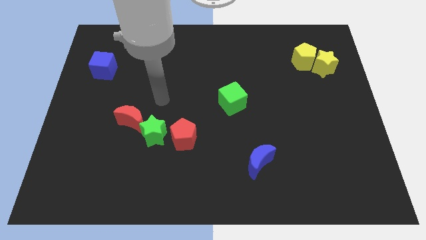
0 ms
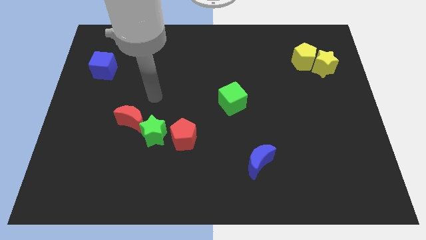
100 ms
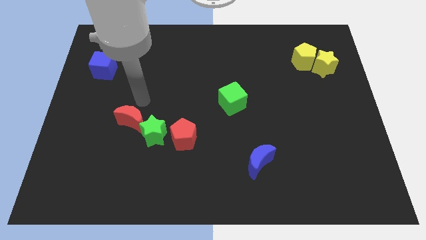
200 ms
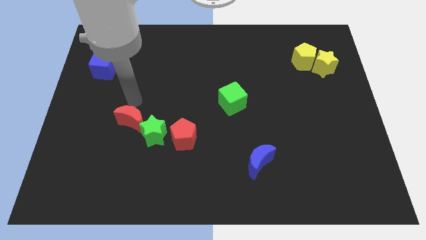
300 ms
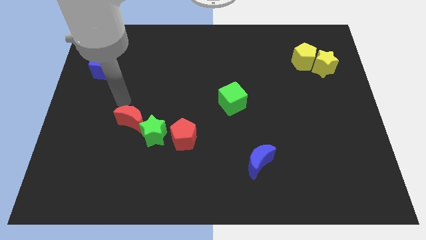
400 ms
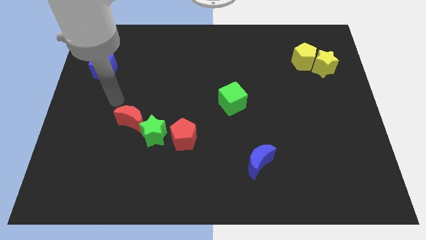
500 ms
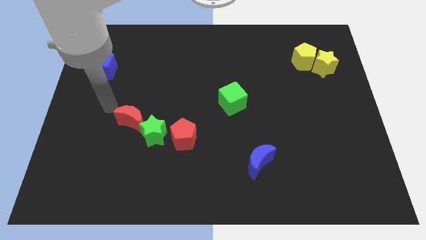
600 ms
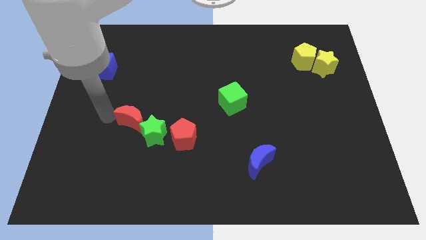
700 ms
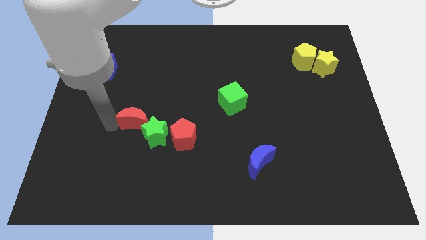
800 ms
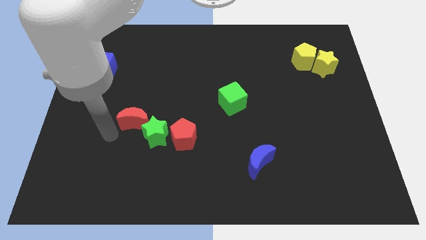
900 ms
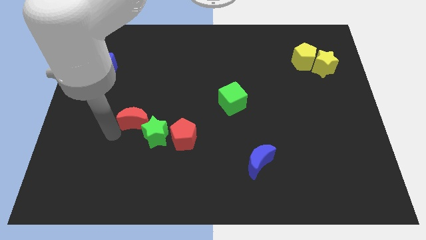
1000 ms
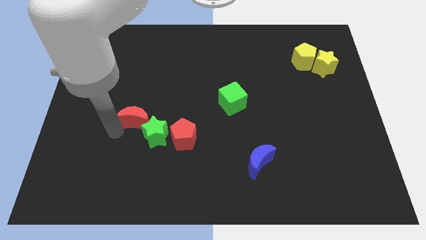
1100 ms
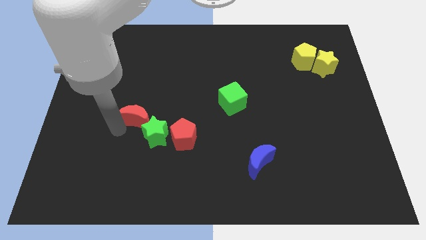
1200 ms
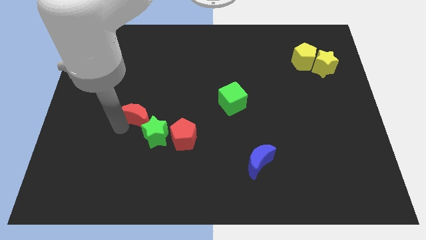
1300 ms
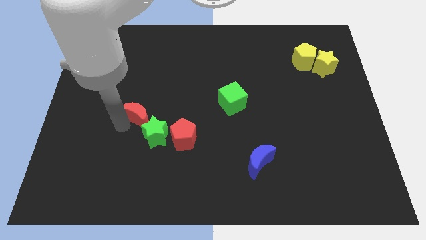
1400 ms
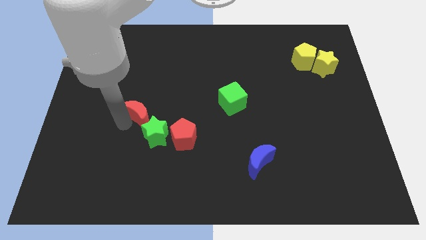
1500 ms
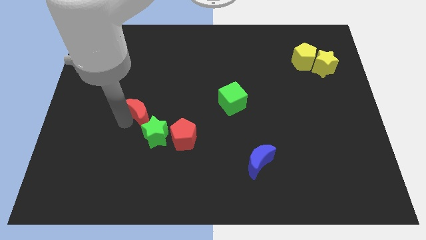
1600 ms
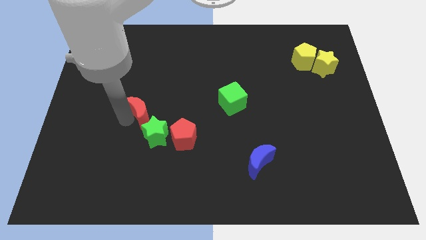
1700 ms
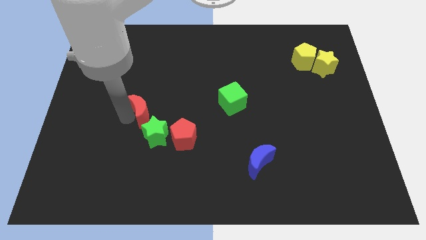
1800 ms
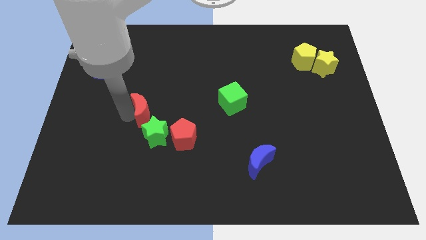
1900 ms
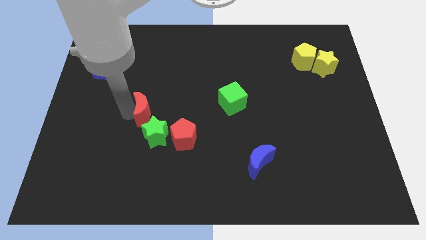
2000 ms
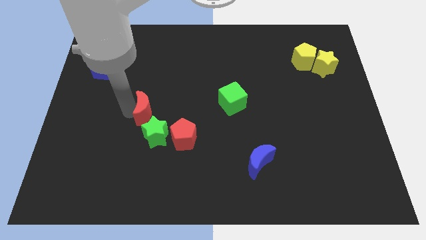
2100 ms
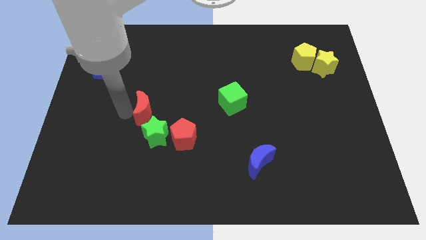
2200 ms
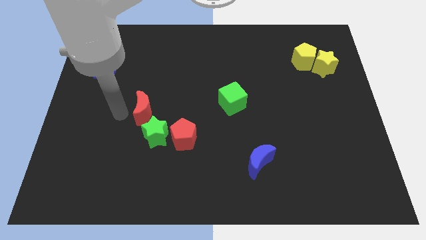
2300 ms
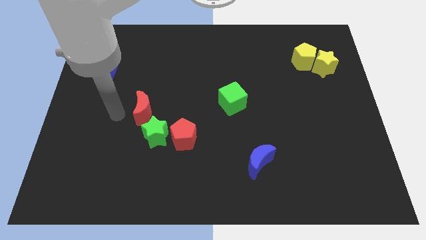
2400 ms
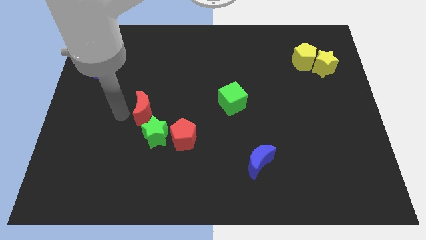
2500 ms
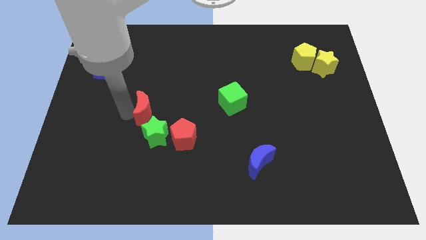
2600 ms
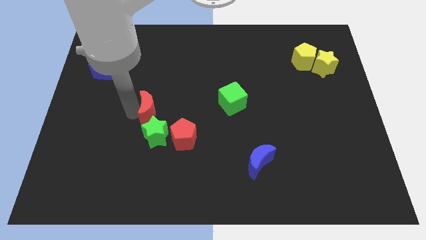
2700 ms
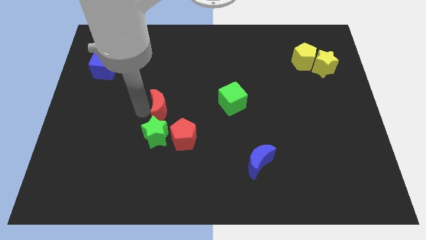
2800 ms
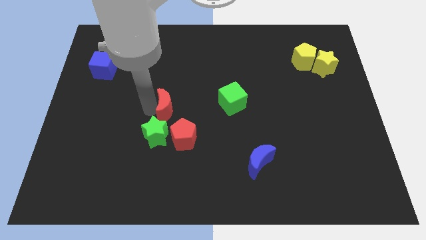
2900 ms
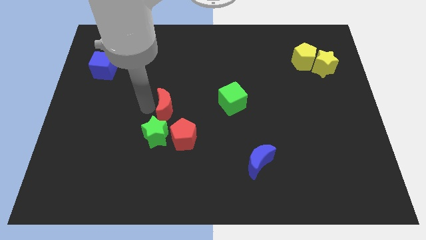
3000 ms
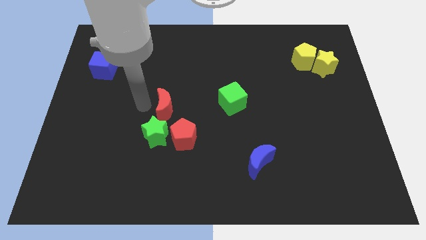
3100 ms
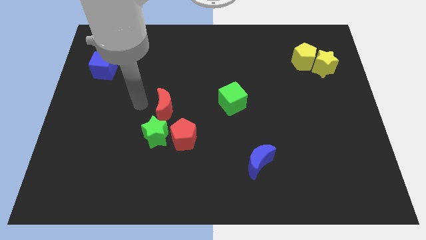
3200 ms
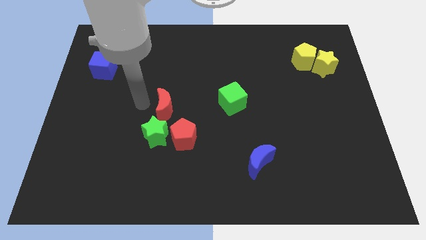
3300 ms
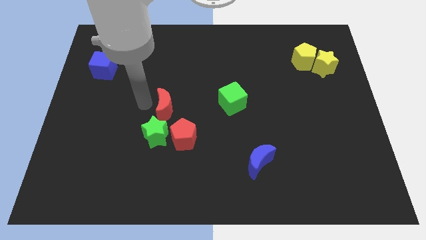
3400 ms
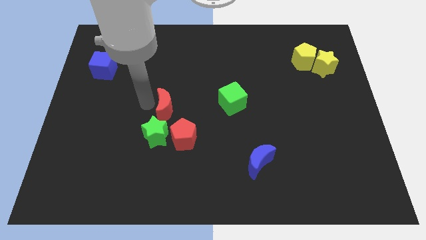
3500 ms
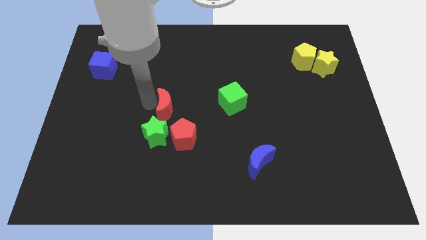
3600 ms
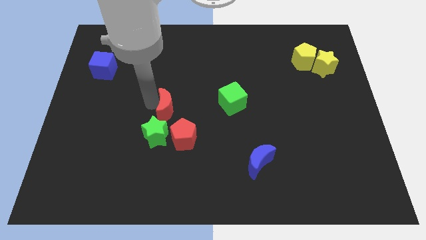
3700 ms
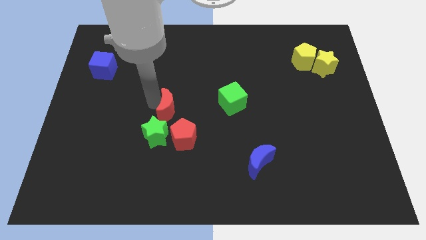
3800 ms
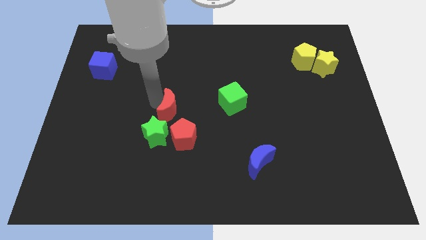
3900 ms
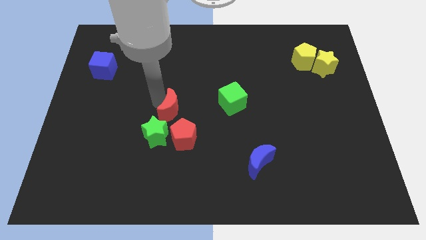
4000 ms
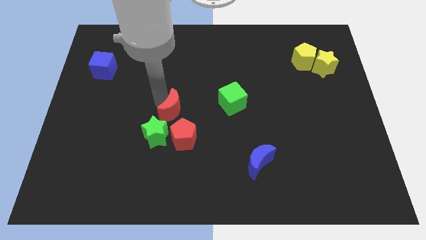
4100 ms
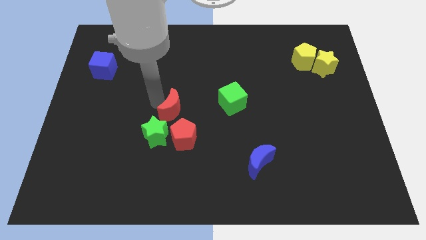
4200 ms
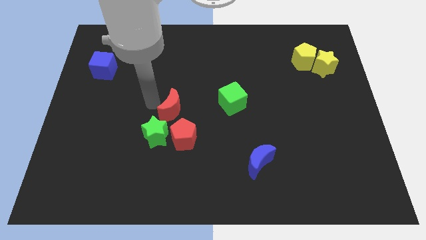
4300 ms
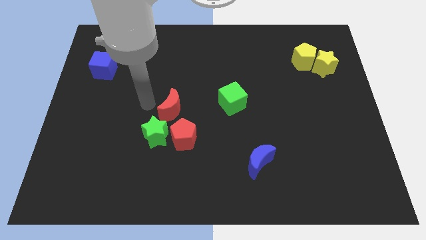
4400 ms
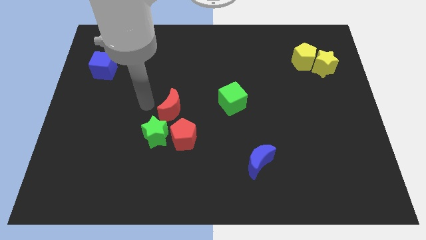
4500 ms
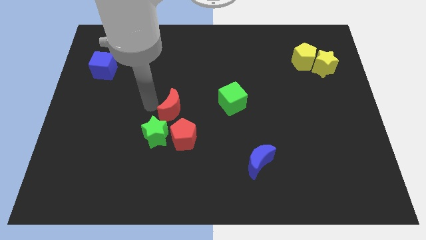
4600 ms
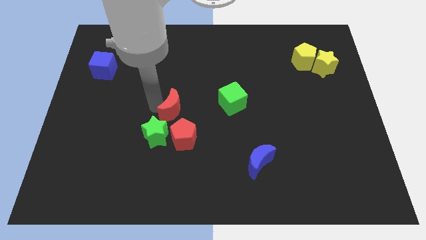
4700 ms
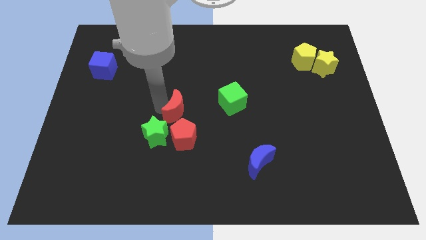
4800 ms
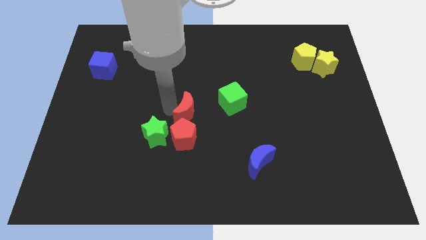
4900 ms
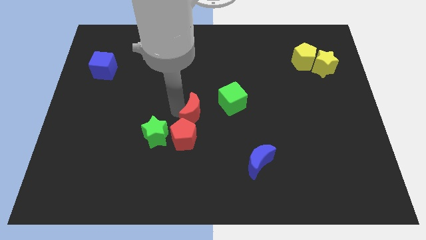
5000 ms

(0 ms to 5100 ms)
put the red moon diagonally down and to the left of the green cube

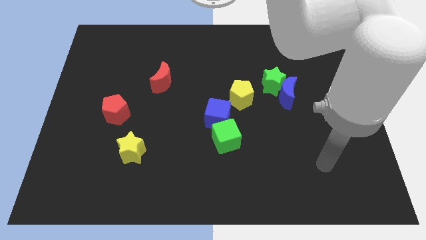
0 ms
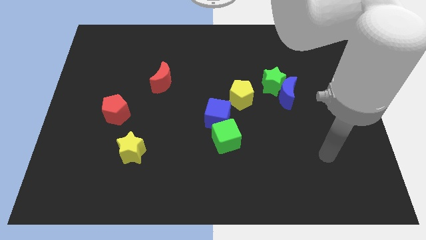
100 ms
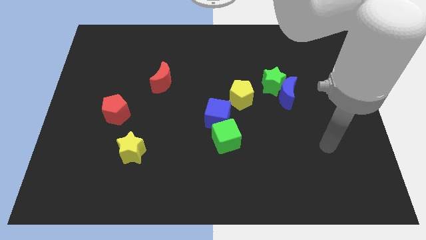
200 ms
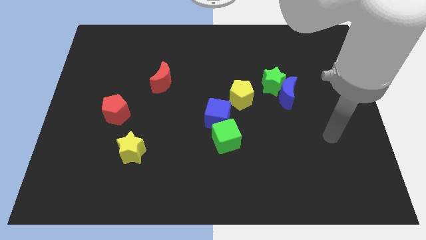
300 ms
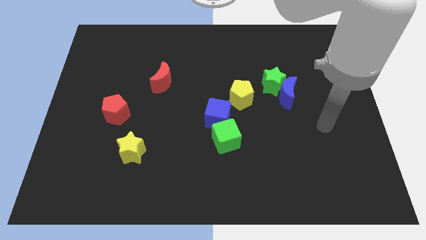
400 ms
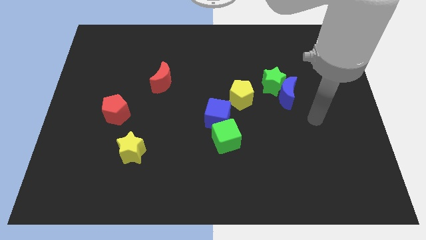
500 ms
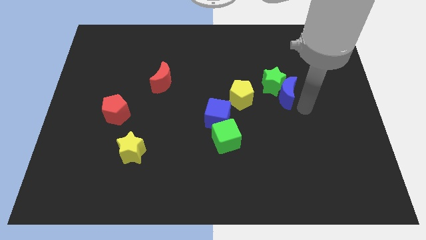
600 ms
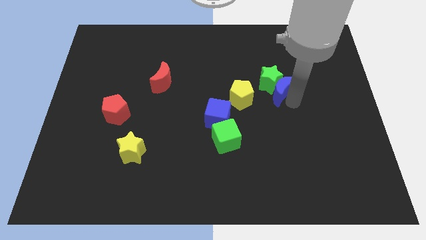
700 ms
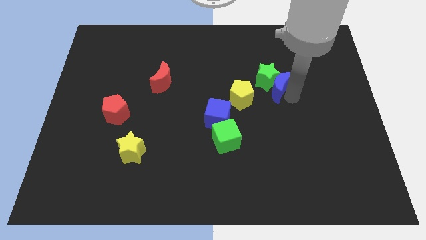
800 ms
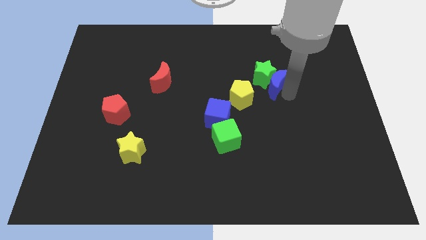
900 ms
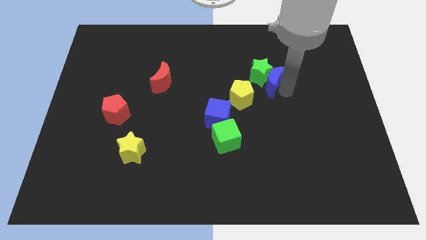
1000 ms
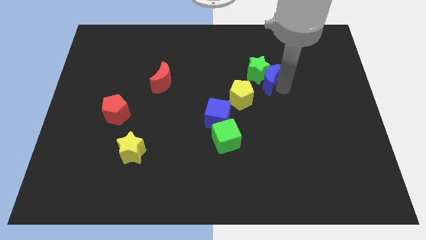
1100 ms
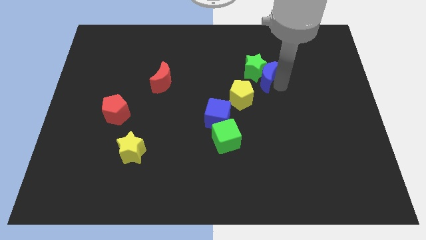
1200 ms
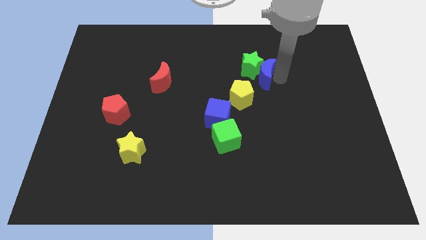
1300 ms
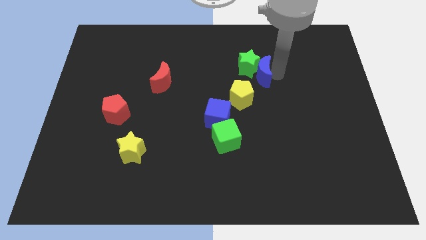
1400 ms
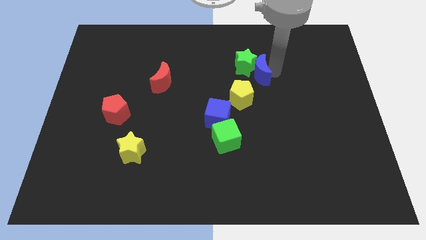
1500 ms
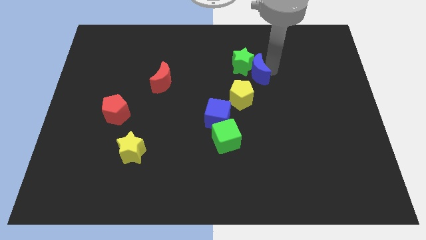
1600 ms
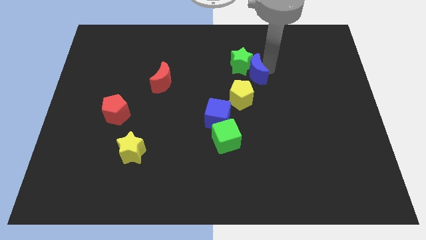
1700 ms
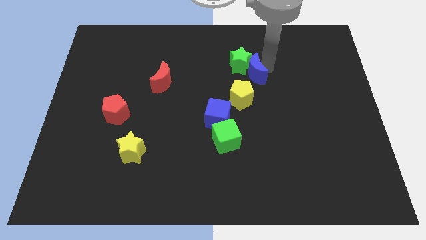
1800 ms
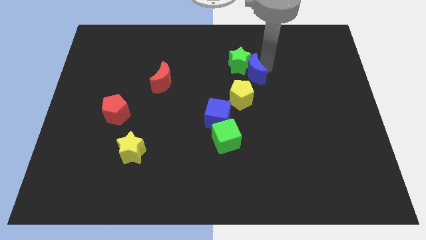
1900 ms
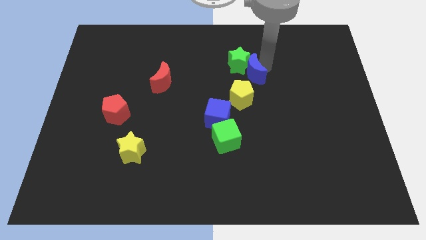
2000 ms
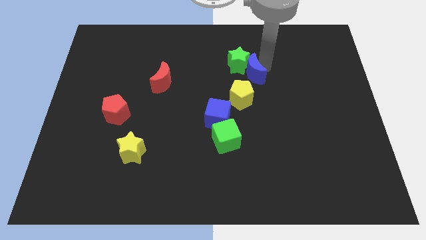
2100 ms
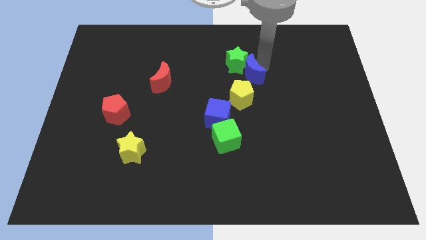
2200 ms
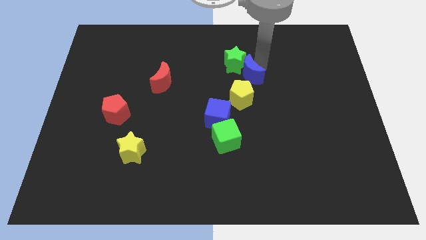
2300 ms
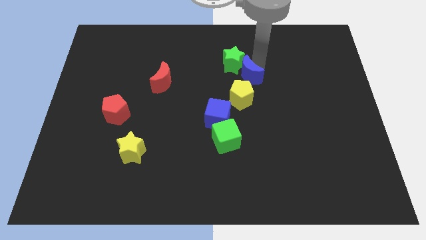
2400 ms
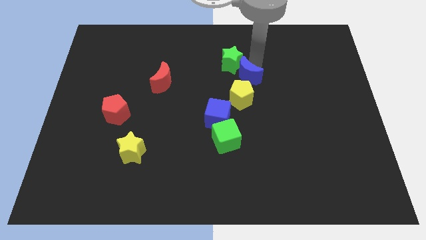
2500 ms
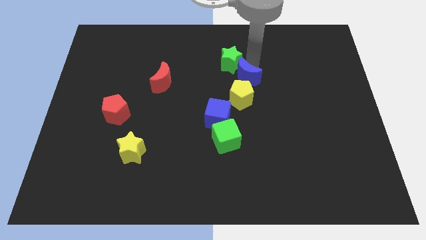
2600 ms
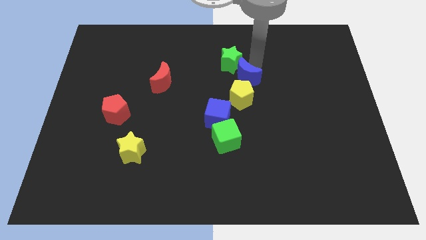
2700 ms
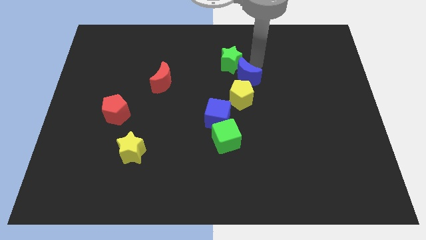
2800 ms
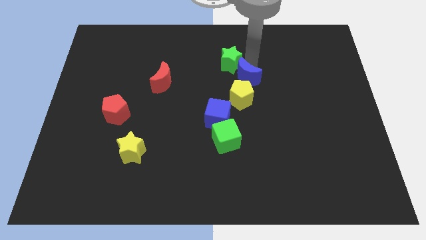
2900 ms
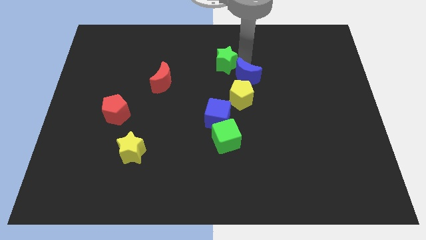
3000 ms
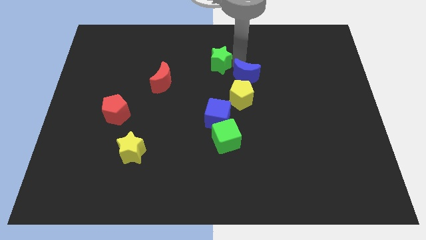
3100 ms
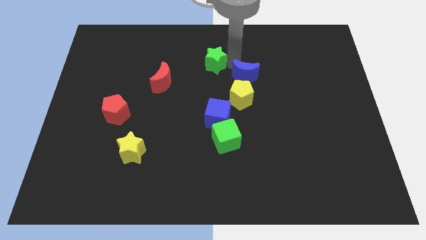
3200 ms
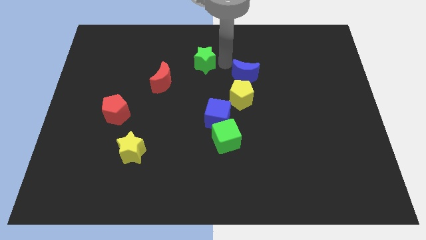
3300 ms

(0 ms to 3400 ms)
slide the green star to the top right side of the red moon

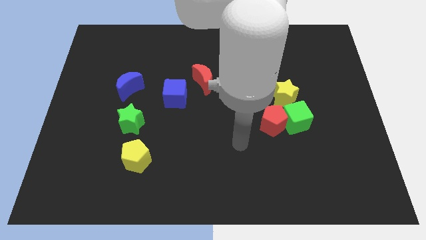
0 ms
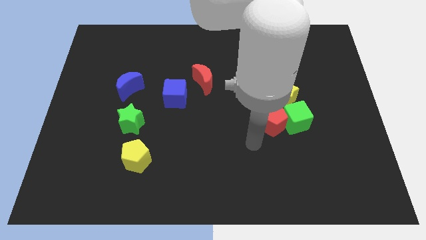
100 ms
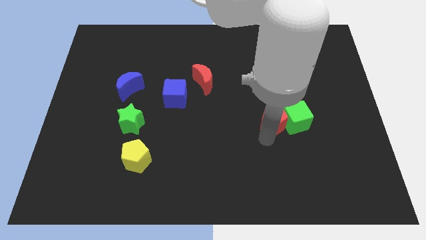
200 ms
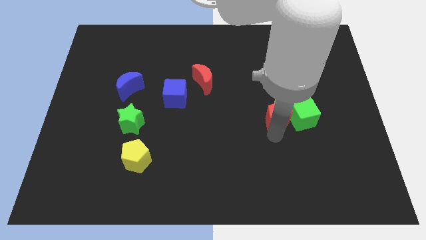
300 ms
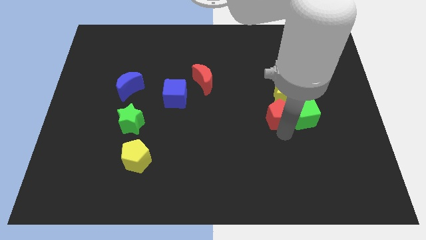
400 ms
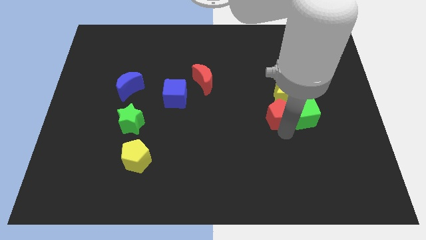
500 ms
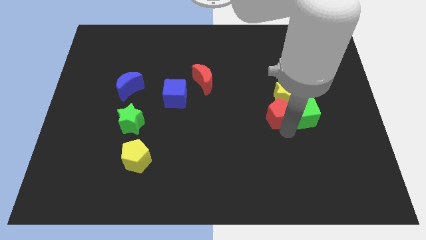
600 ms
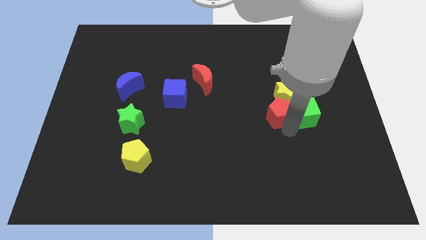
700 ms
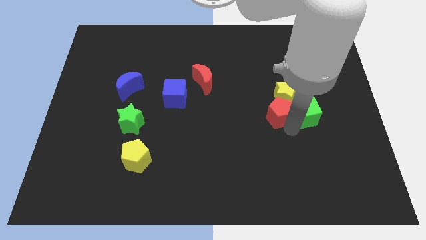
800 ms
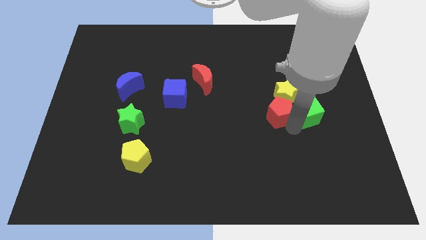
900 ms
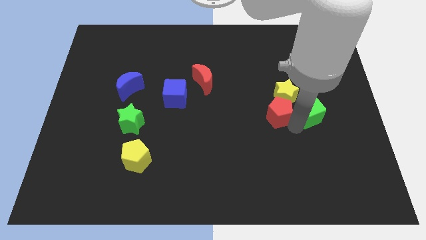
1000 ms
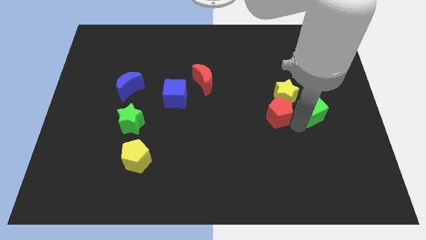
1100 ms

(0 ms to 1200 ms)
move the green cube right of the yellow star
